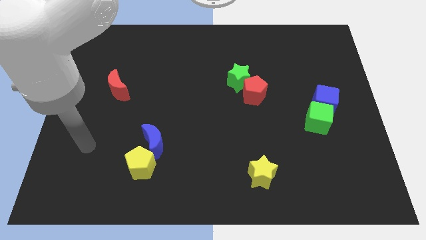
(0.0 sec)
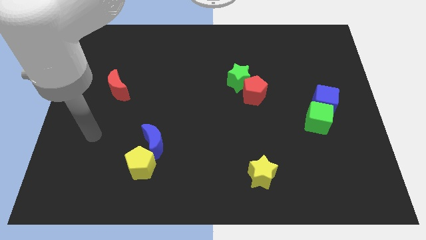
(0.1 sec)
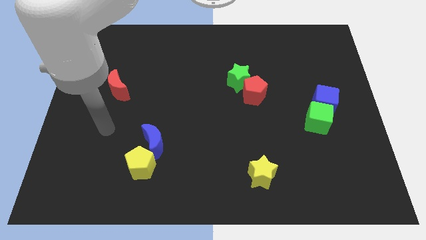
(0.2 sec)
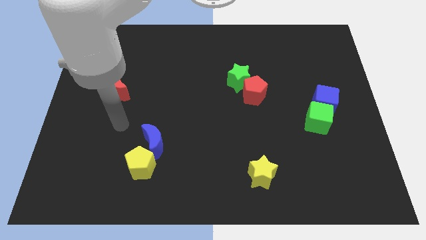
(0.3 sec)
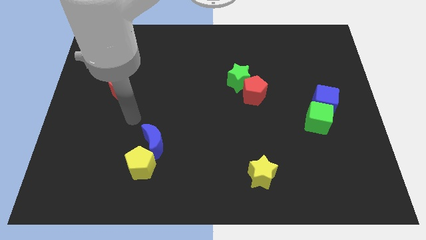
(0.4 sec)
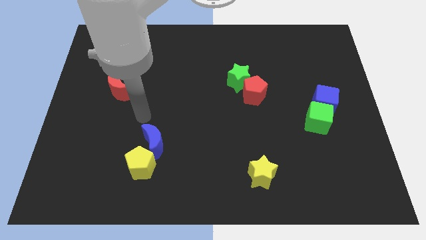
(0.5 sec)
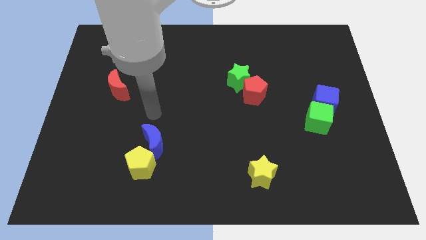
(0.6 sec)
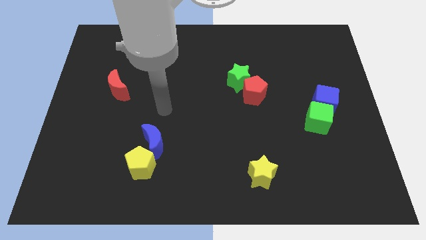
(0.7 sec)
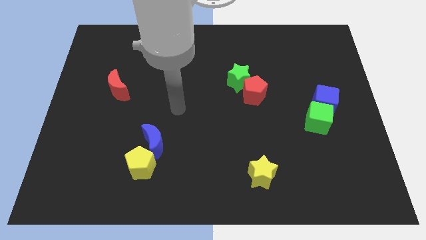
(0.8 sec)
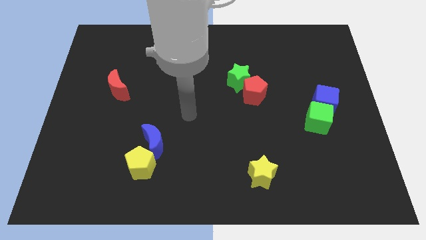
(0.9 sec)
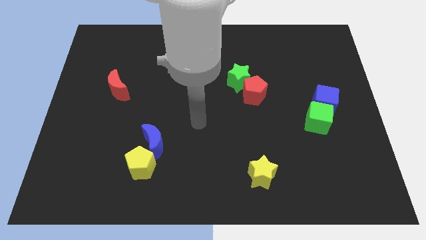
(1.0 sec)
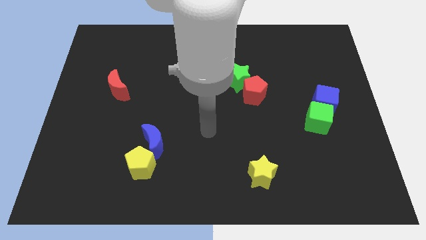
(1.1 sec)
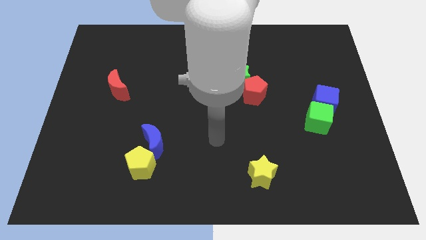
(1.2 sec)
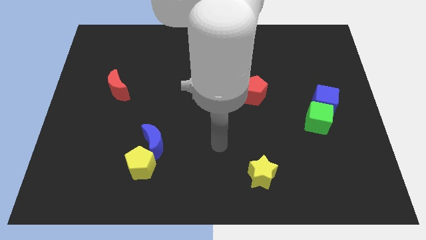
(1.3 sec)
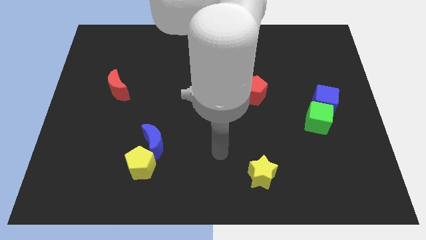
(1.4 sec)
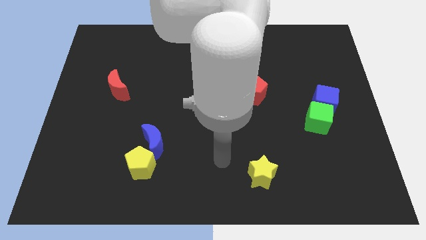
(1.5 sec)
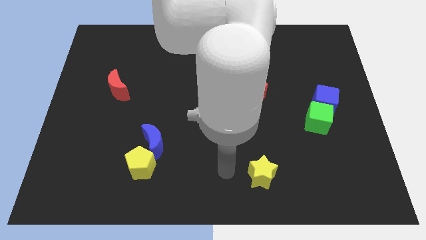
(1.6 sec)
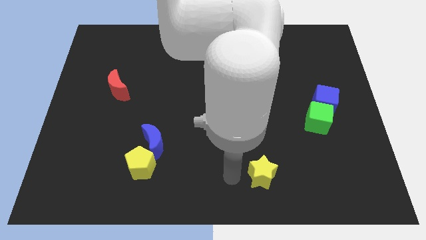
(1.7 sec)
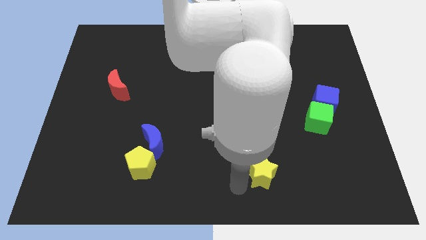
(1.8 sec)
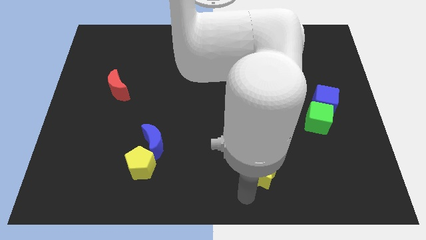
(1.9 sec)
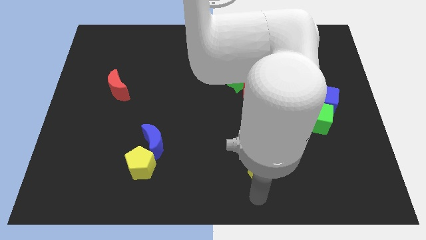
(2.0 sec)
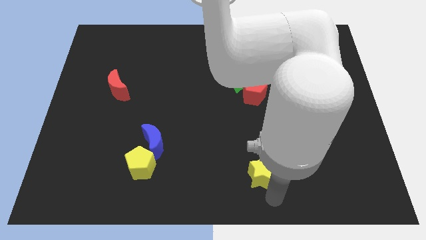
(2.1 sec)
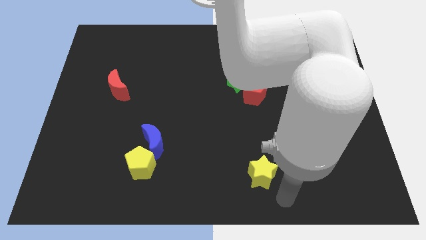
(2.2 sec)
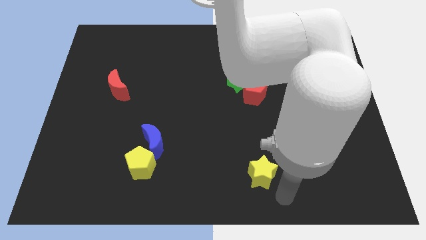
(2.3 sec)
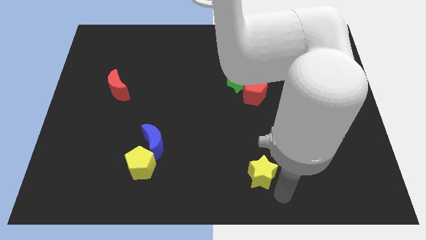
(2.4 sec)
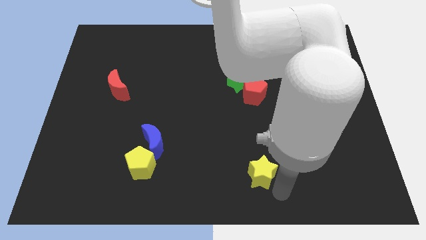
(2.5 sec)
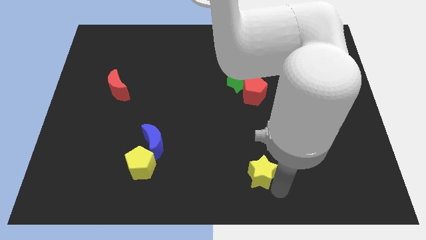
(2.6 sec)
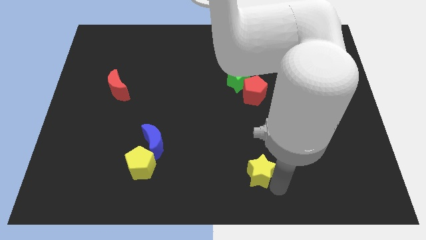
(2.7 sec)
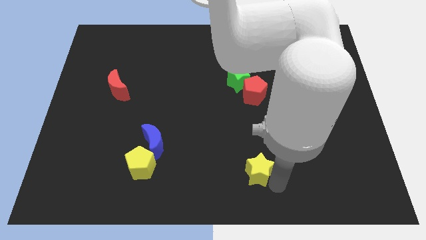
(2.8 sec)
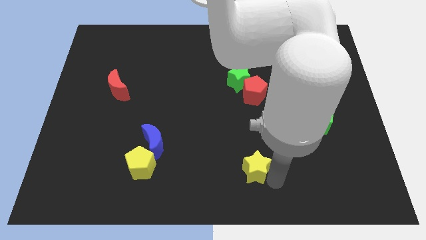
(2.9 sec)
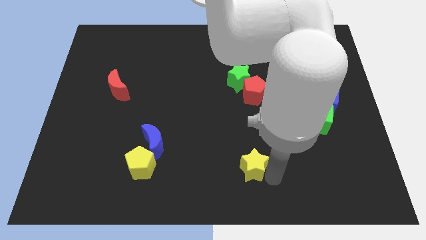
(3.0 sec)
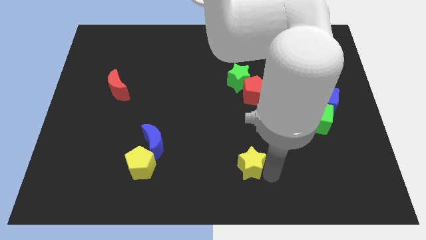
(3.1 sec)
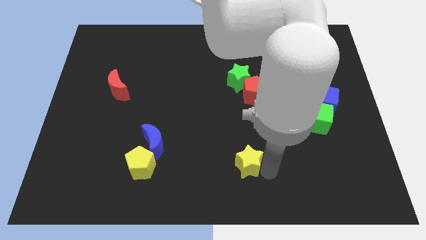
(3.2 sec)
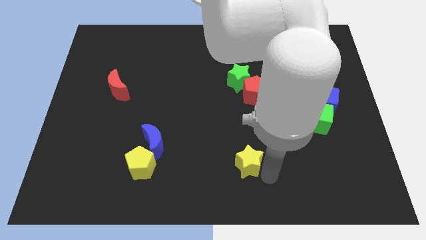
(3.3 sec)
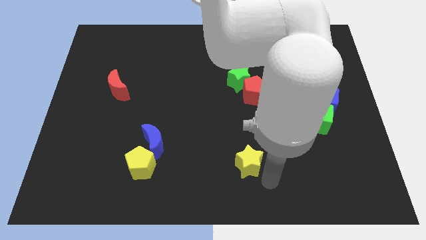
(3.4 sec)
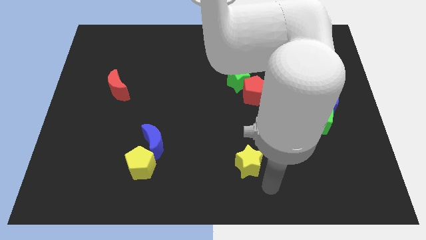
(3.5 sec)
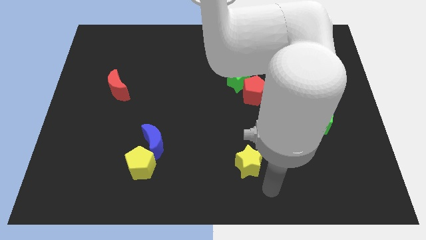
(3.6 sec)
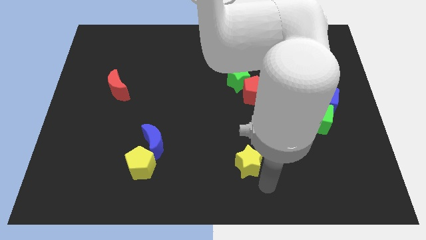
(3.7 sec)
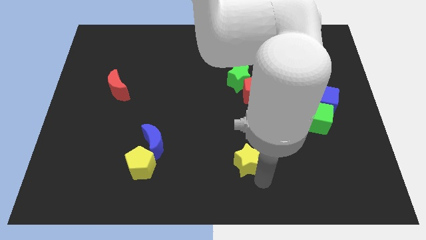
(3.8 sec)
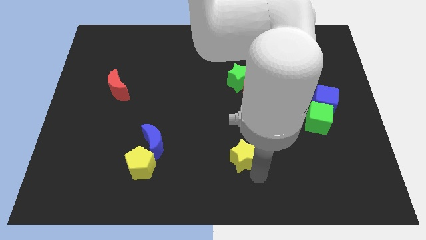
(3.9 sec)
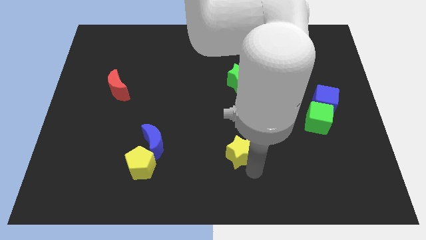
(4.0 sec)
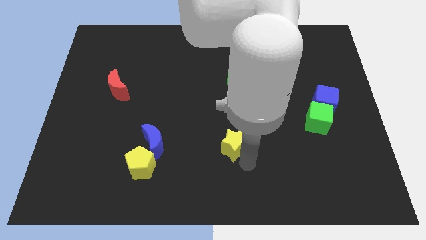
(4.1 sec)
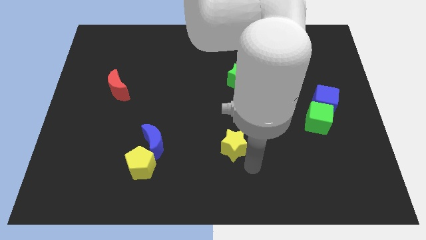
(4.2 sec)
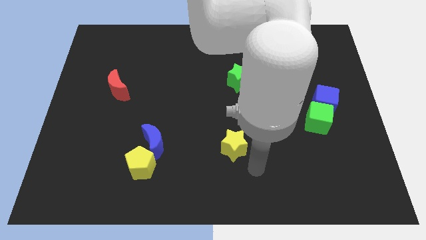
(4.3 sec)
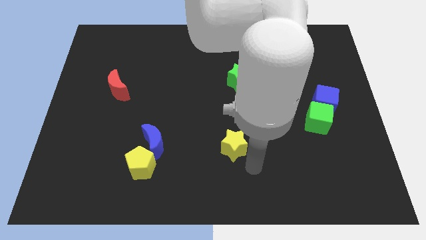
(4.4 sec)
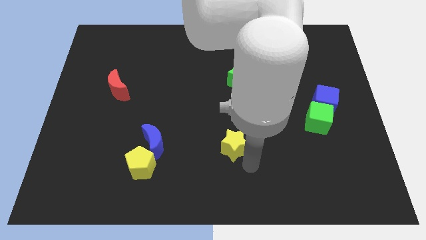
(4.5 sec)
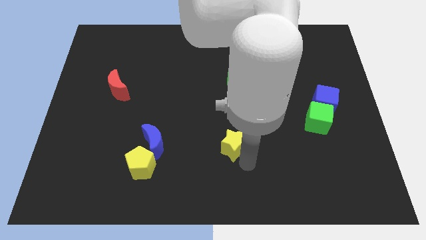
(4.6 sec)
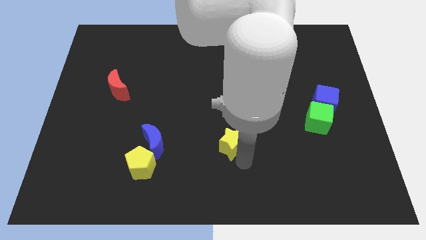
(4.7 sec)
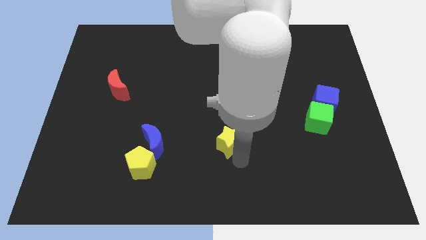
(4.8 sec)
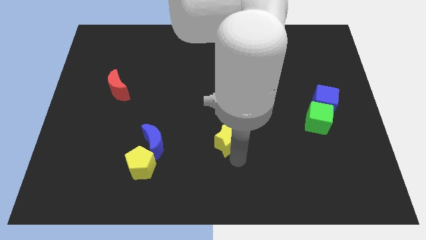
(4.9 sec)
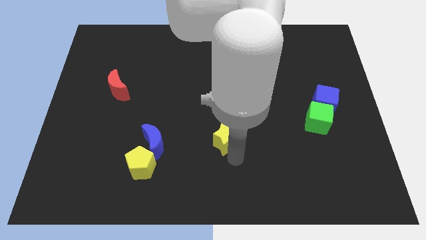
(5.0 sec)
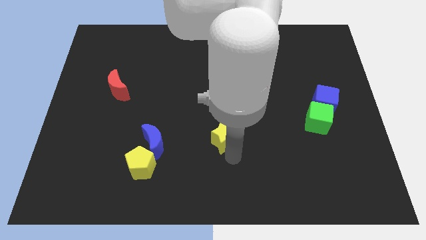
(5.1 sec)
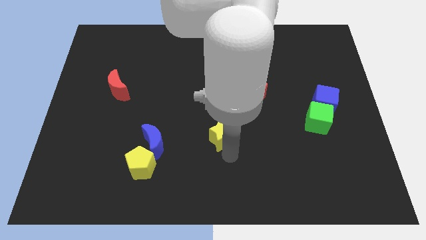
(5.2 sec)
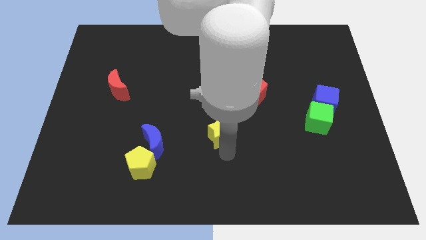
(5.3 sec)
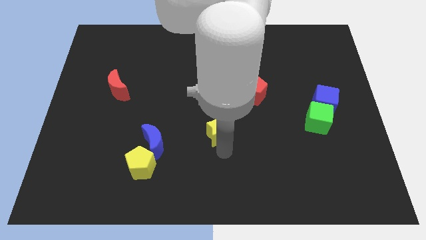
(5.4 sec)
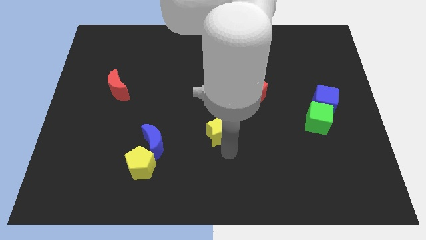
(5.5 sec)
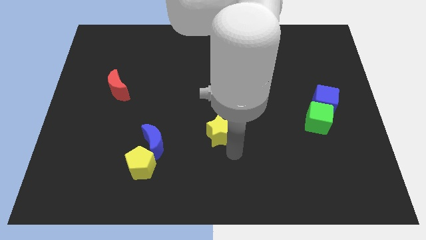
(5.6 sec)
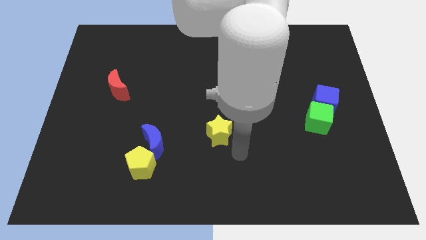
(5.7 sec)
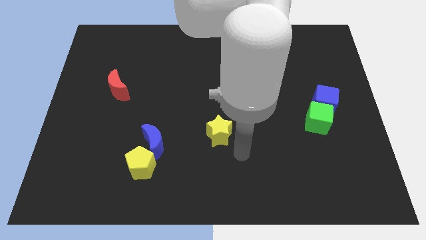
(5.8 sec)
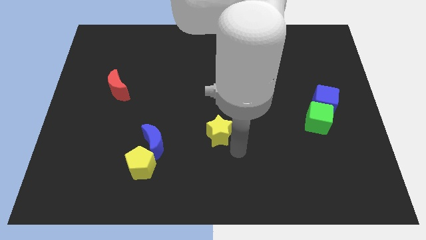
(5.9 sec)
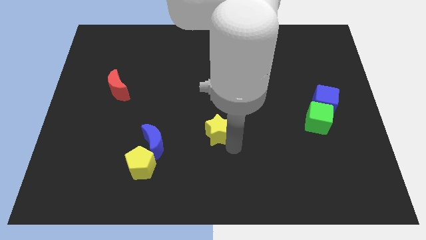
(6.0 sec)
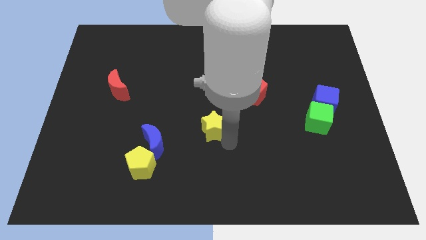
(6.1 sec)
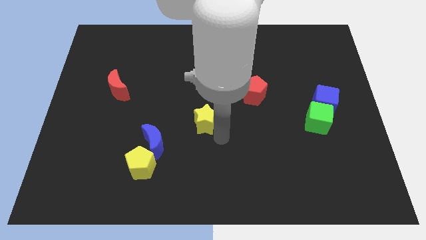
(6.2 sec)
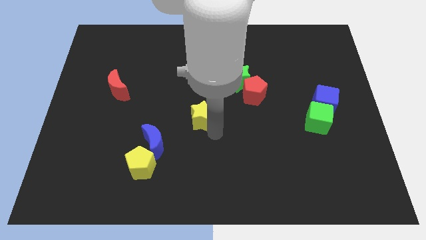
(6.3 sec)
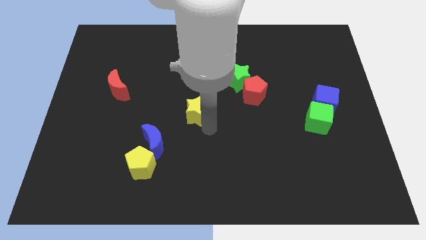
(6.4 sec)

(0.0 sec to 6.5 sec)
move the yellow star up and left diagonally

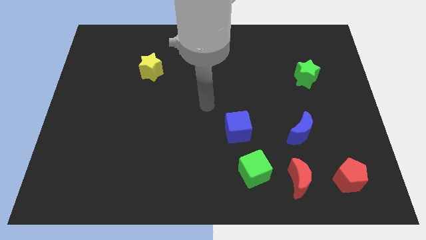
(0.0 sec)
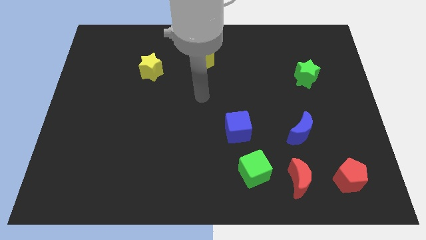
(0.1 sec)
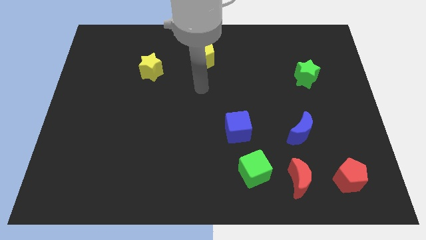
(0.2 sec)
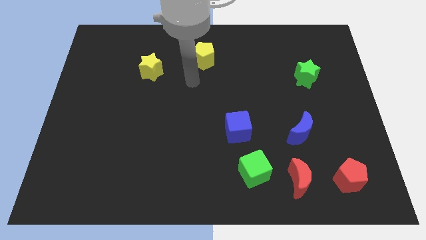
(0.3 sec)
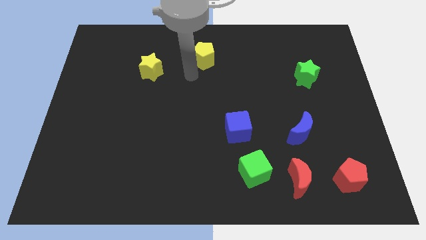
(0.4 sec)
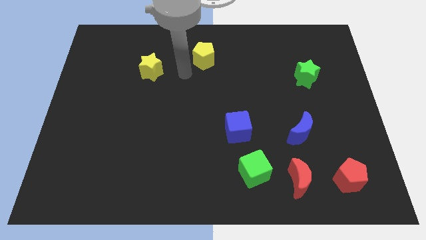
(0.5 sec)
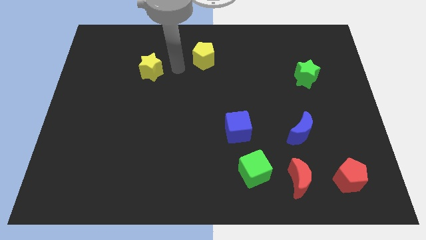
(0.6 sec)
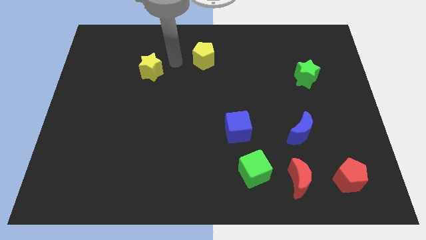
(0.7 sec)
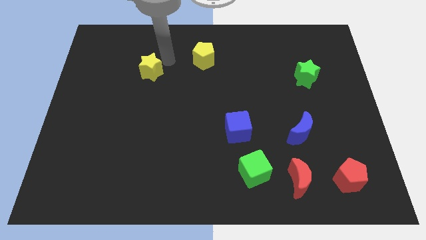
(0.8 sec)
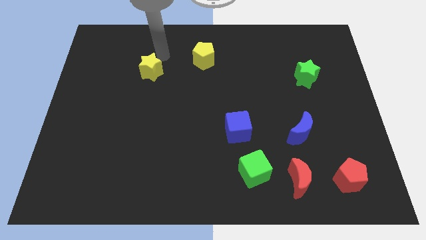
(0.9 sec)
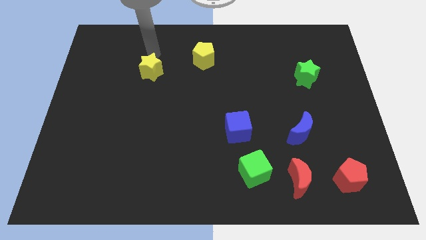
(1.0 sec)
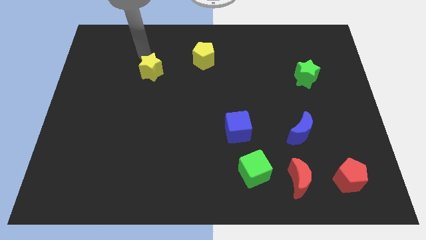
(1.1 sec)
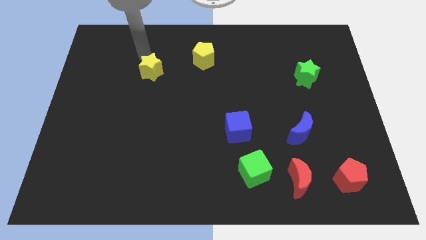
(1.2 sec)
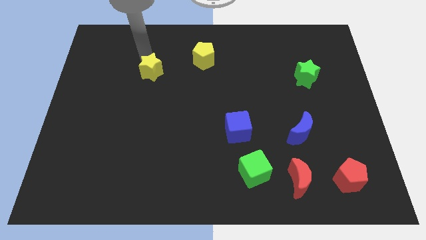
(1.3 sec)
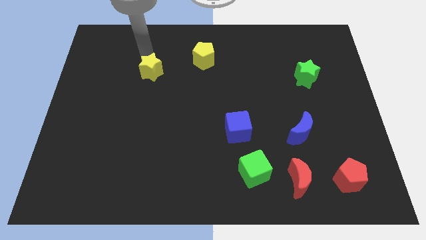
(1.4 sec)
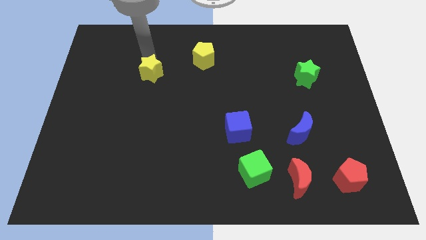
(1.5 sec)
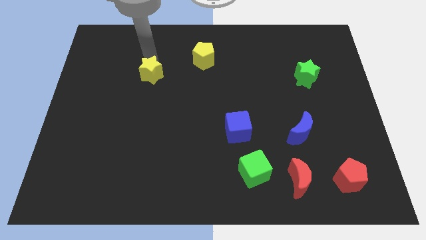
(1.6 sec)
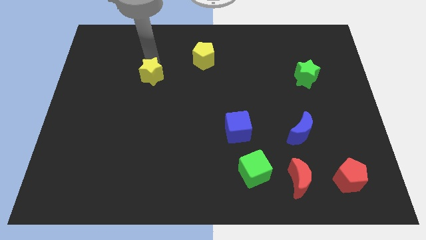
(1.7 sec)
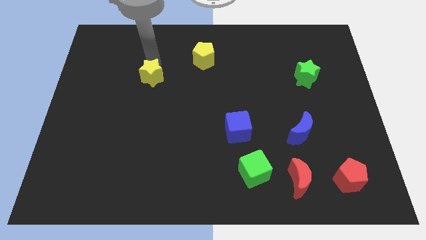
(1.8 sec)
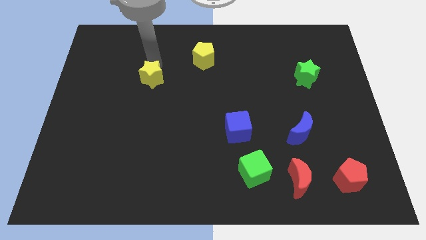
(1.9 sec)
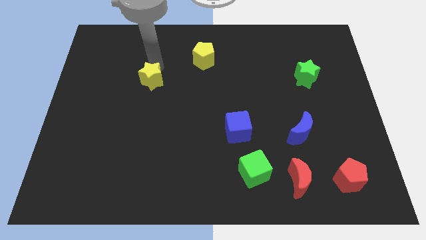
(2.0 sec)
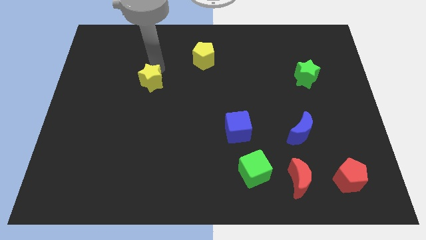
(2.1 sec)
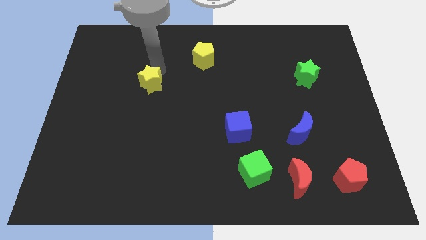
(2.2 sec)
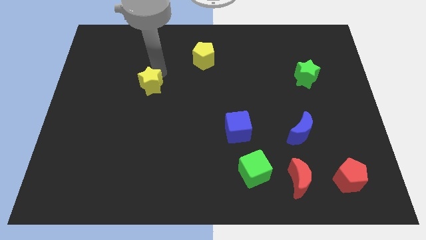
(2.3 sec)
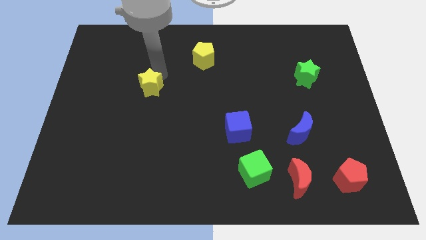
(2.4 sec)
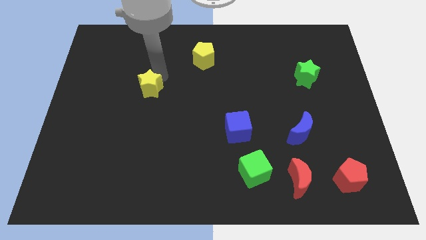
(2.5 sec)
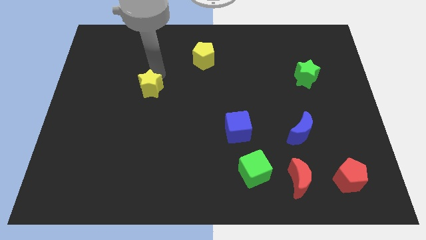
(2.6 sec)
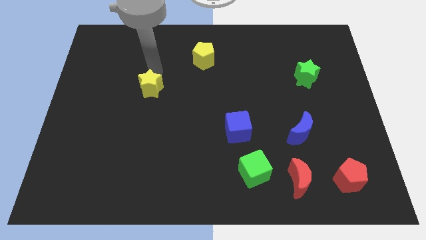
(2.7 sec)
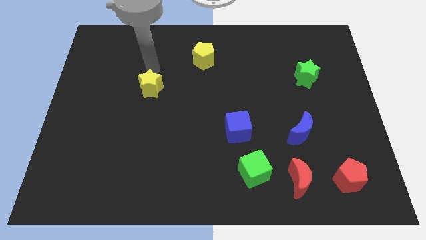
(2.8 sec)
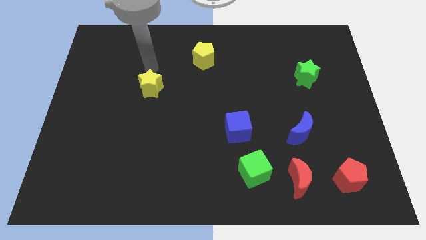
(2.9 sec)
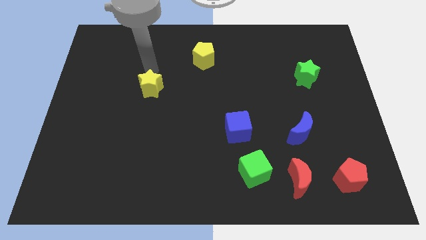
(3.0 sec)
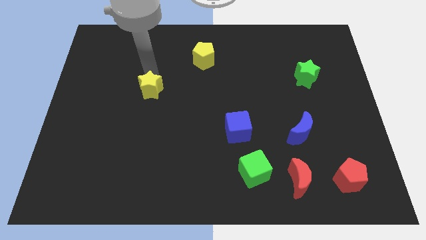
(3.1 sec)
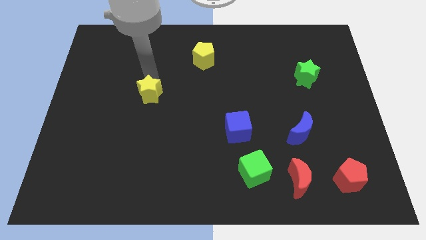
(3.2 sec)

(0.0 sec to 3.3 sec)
move the yellow star down a little
